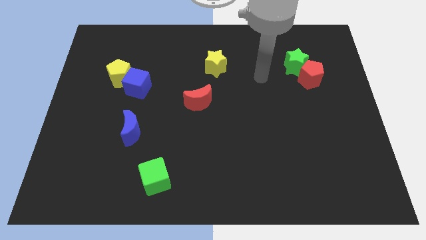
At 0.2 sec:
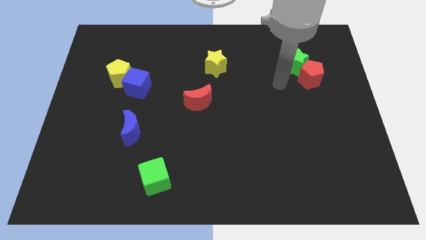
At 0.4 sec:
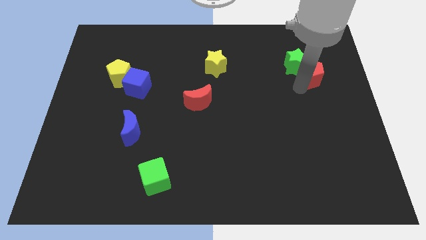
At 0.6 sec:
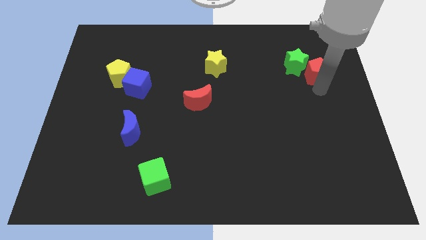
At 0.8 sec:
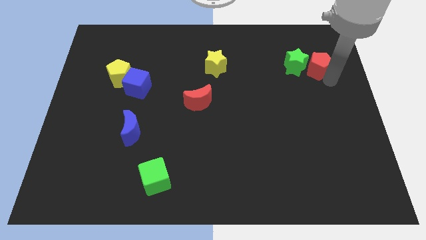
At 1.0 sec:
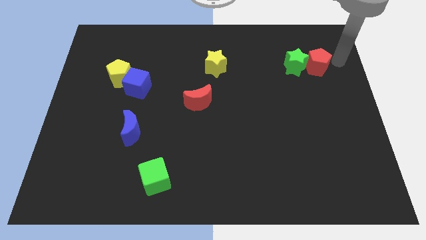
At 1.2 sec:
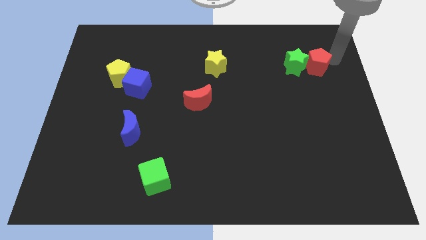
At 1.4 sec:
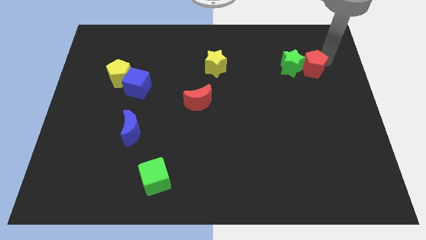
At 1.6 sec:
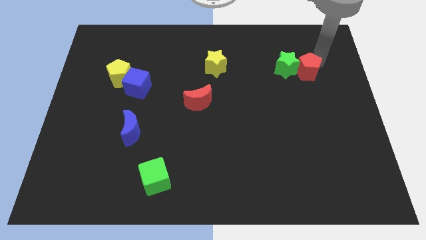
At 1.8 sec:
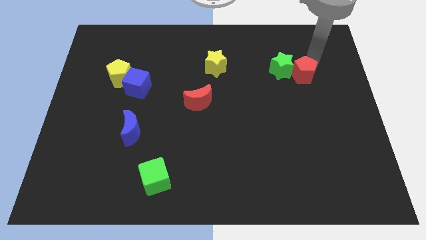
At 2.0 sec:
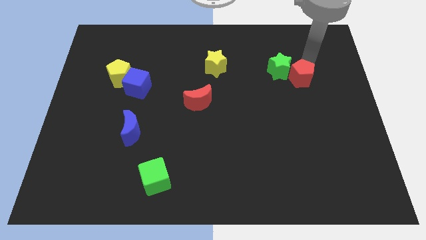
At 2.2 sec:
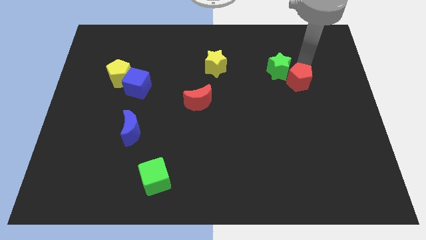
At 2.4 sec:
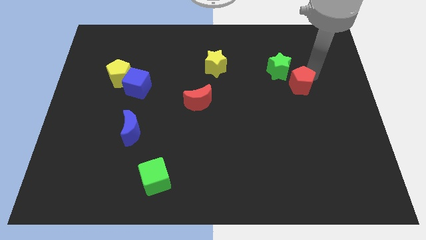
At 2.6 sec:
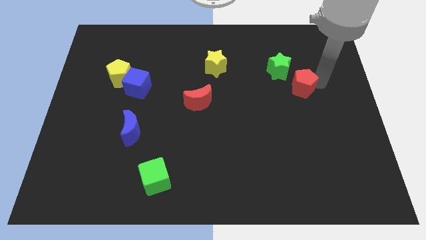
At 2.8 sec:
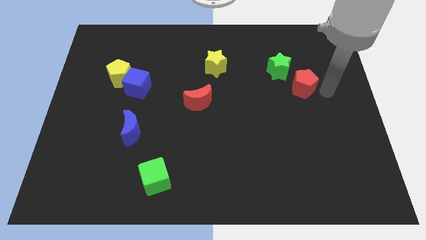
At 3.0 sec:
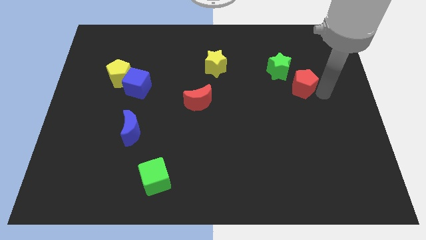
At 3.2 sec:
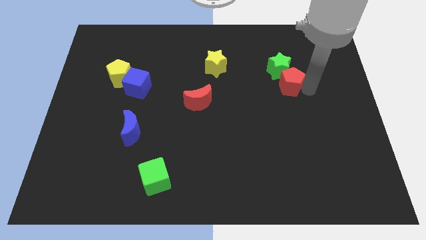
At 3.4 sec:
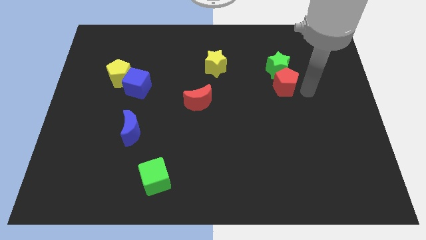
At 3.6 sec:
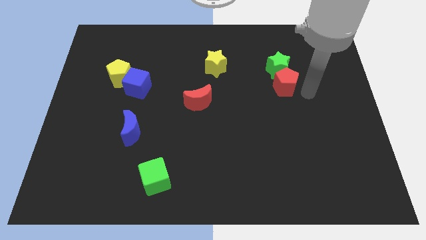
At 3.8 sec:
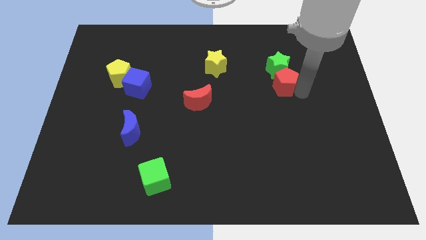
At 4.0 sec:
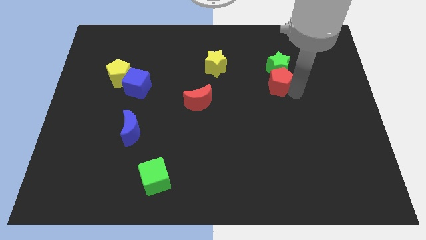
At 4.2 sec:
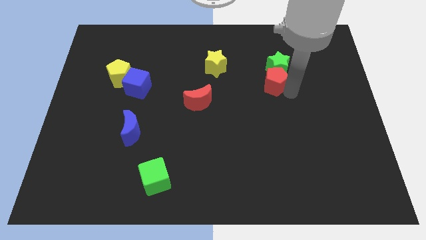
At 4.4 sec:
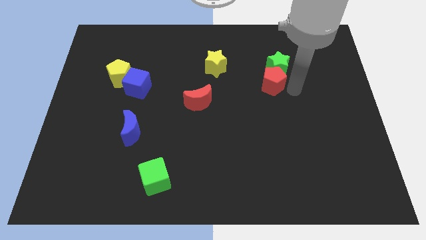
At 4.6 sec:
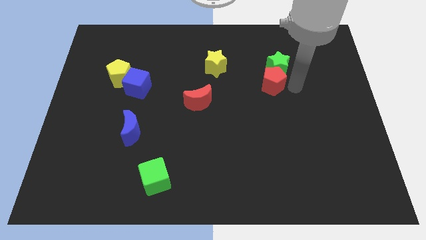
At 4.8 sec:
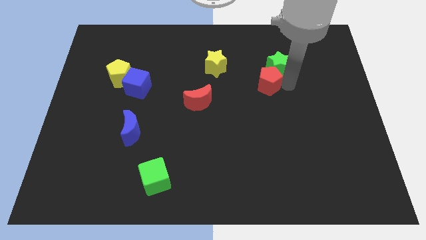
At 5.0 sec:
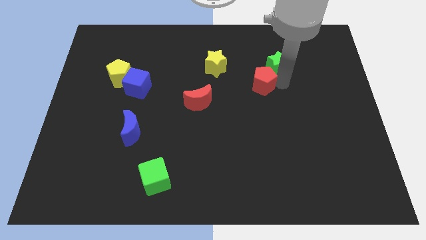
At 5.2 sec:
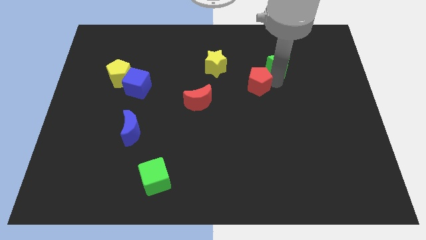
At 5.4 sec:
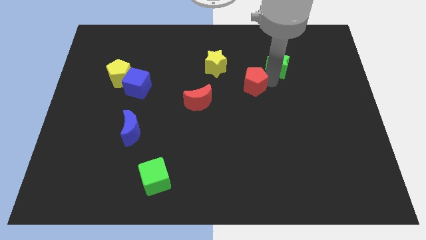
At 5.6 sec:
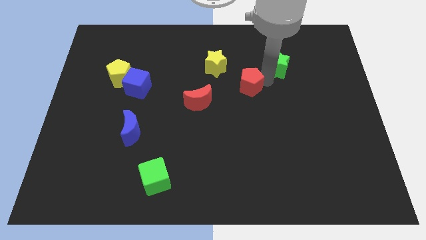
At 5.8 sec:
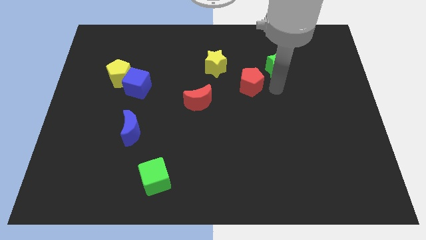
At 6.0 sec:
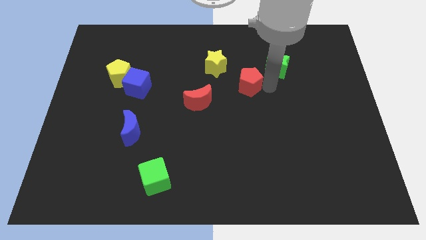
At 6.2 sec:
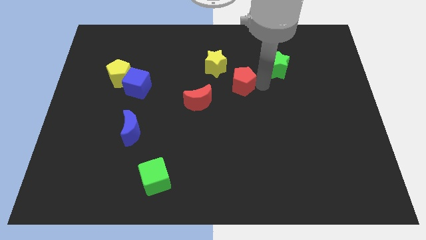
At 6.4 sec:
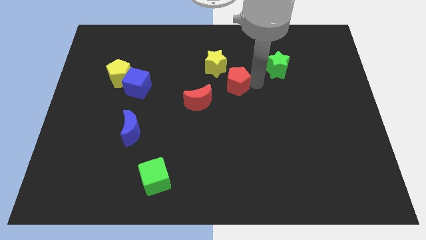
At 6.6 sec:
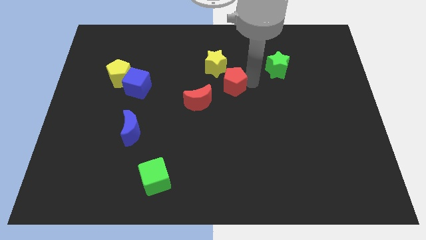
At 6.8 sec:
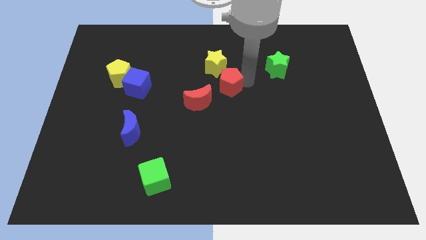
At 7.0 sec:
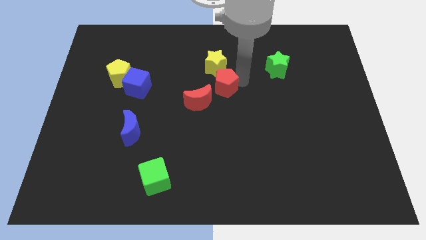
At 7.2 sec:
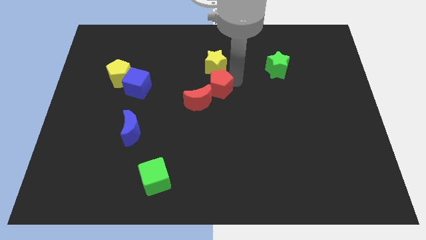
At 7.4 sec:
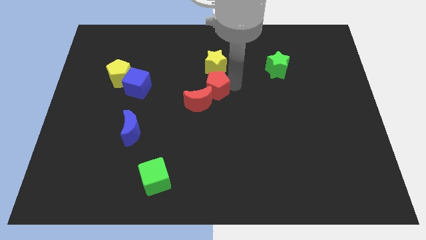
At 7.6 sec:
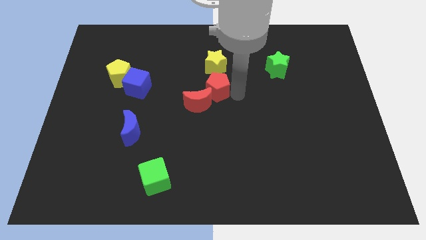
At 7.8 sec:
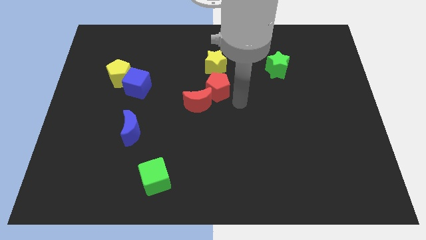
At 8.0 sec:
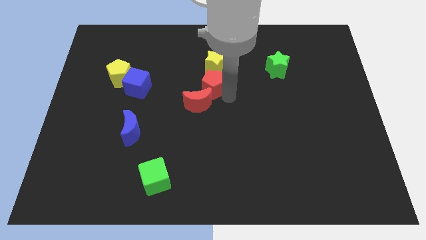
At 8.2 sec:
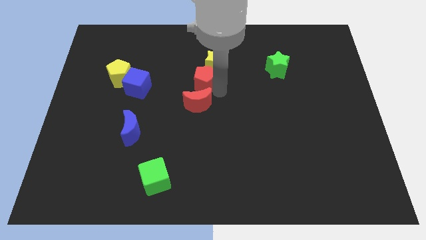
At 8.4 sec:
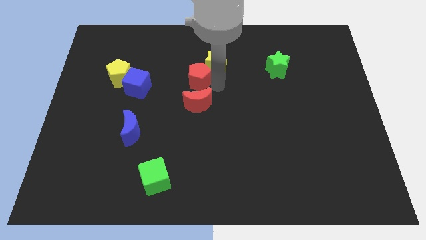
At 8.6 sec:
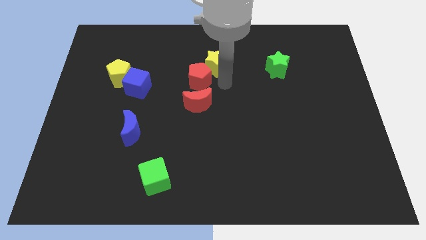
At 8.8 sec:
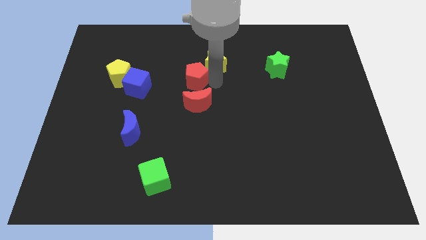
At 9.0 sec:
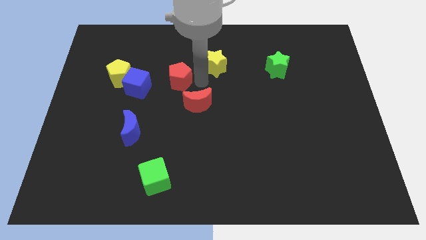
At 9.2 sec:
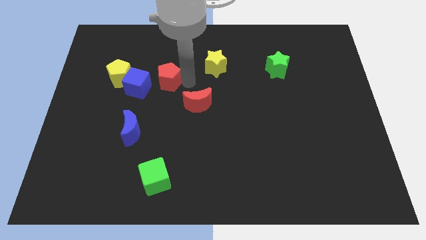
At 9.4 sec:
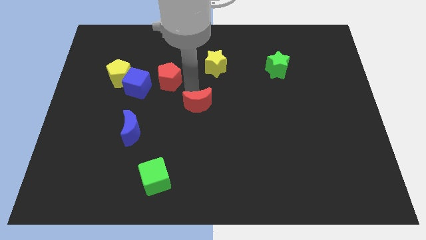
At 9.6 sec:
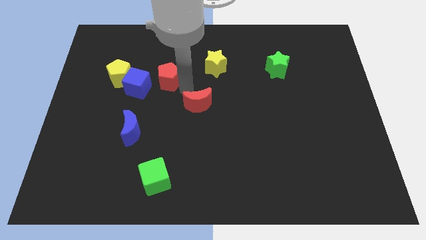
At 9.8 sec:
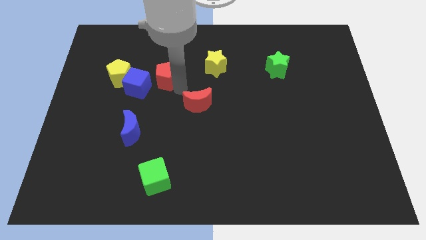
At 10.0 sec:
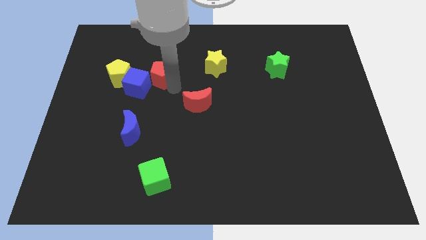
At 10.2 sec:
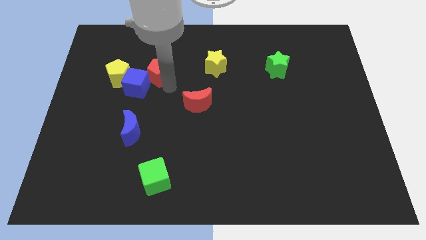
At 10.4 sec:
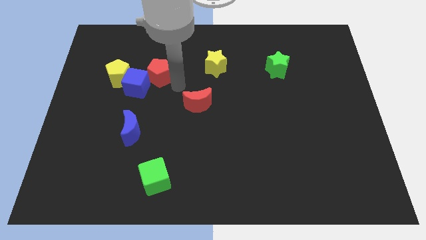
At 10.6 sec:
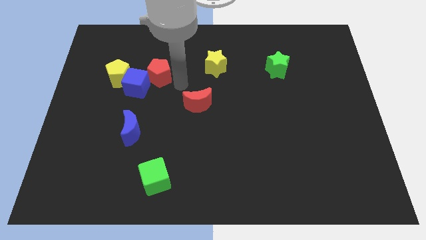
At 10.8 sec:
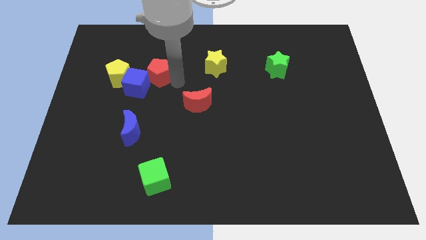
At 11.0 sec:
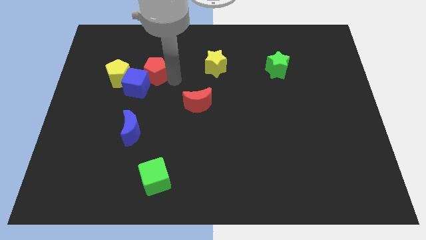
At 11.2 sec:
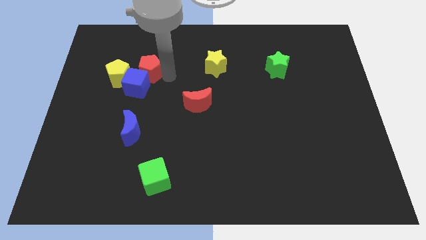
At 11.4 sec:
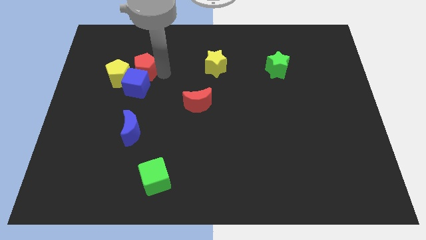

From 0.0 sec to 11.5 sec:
move the red pentagon to the top left side of the blue cube

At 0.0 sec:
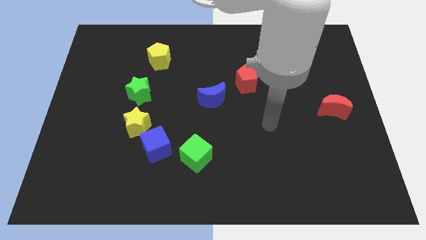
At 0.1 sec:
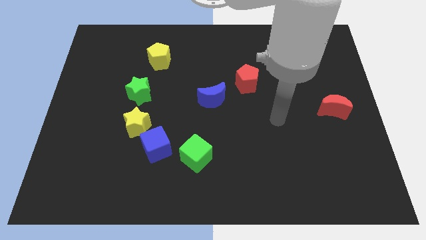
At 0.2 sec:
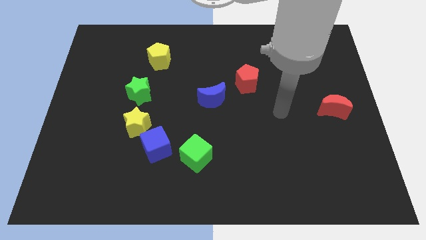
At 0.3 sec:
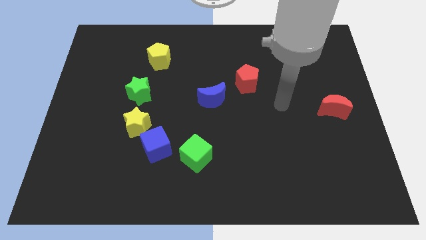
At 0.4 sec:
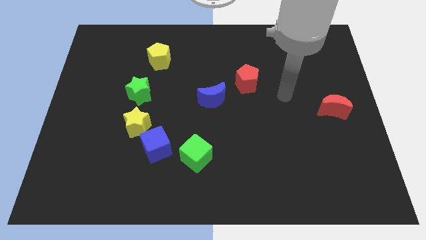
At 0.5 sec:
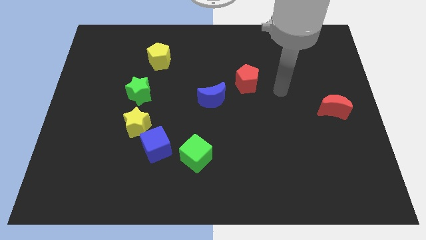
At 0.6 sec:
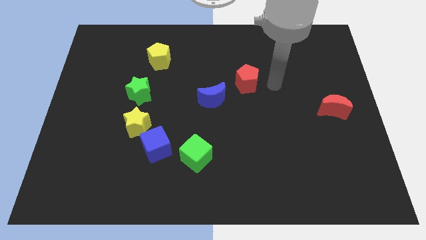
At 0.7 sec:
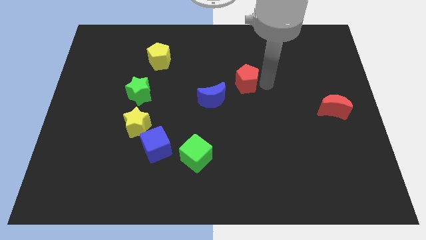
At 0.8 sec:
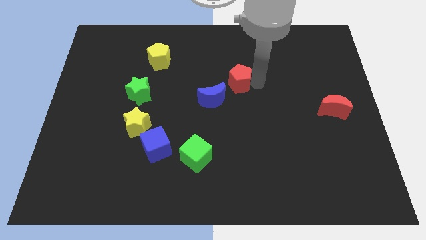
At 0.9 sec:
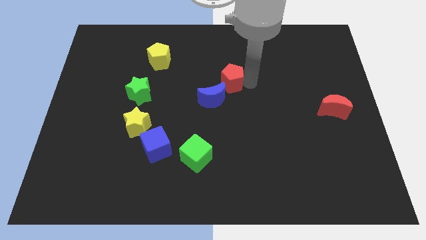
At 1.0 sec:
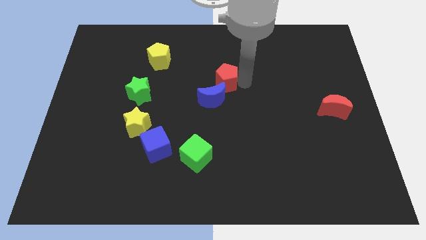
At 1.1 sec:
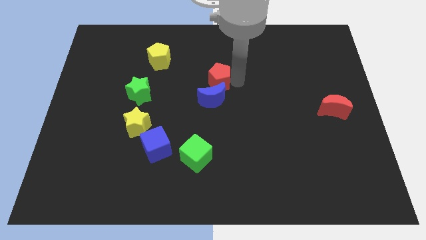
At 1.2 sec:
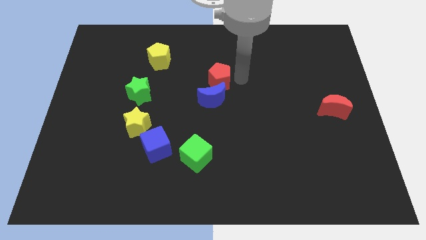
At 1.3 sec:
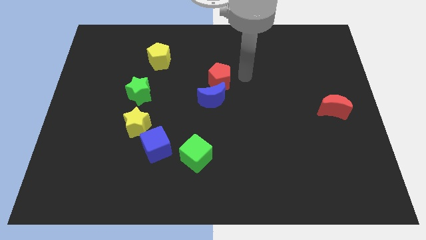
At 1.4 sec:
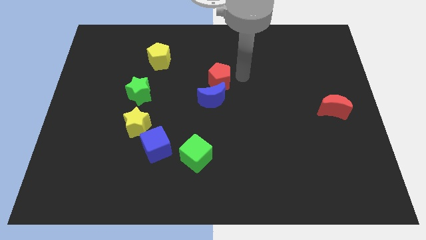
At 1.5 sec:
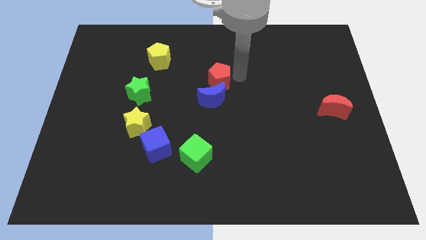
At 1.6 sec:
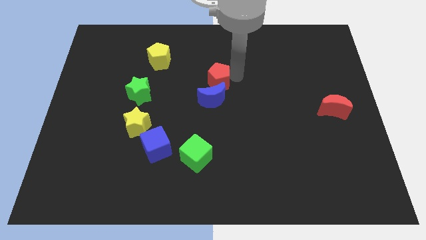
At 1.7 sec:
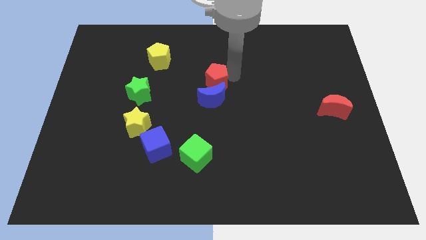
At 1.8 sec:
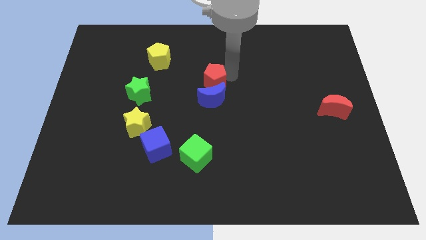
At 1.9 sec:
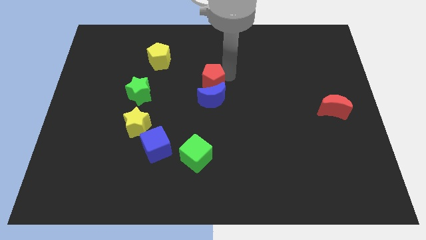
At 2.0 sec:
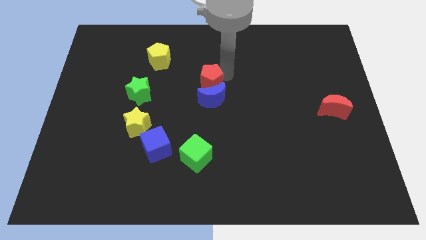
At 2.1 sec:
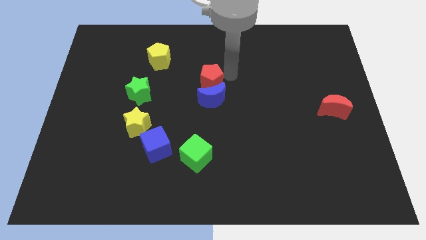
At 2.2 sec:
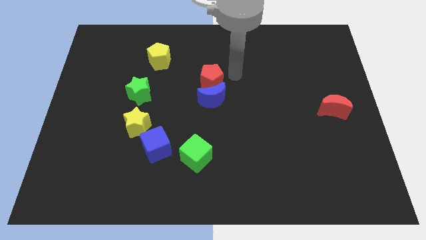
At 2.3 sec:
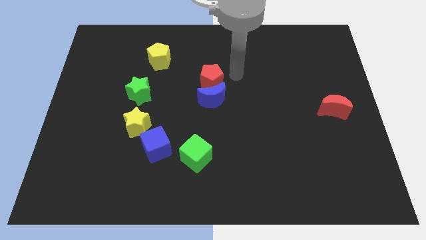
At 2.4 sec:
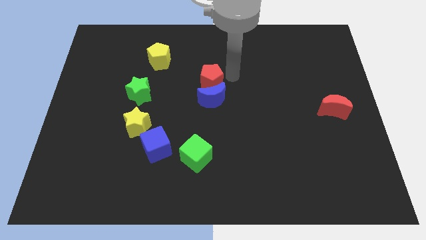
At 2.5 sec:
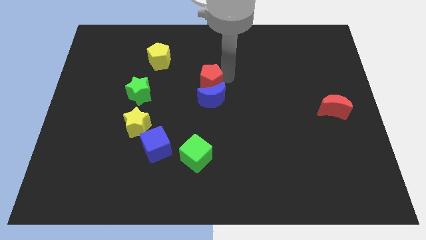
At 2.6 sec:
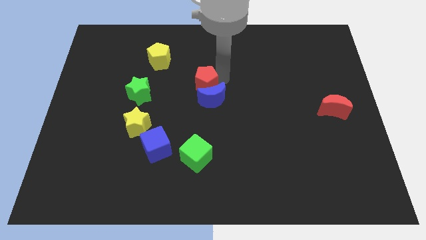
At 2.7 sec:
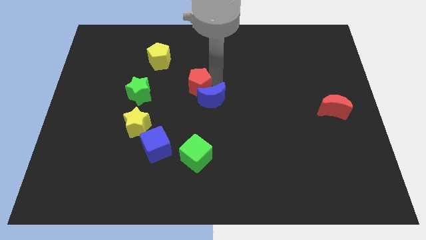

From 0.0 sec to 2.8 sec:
put the red pentagon to the right side of the green star
